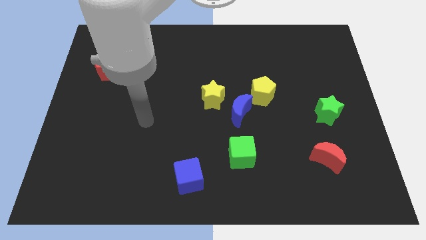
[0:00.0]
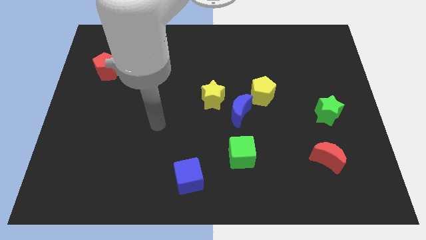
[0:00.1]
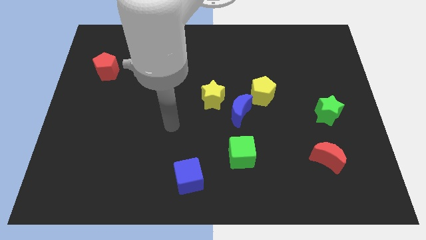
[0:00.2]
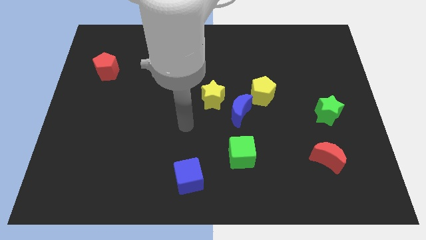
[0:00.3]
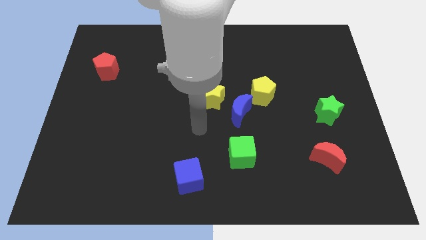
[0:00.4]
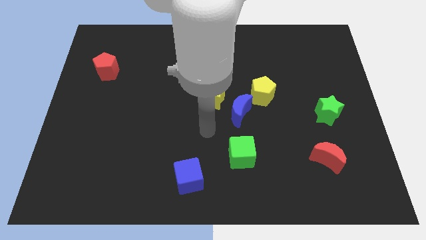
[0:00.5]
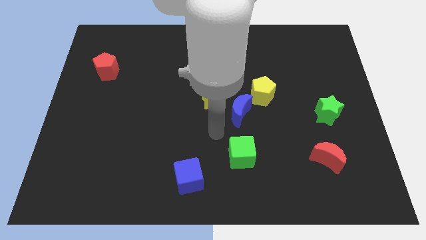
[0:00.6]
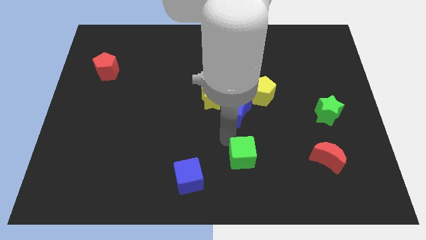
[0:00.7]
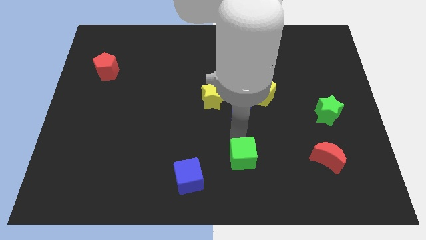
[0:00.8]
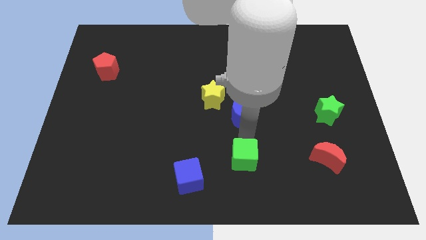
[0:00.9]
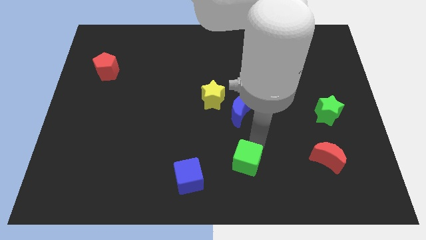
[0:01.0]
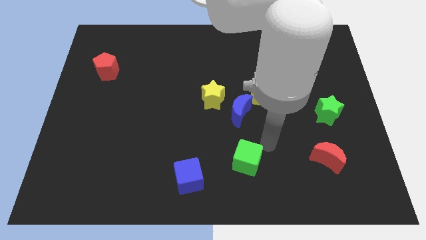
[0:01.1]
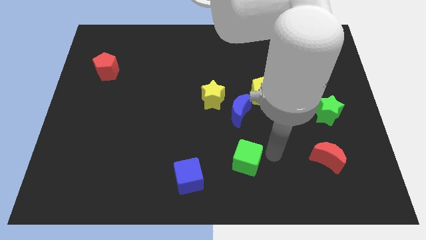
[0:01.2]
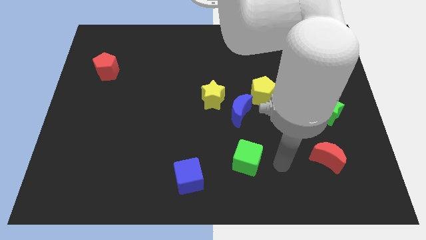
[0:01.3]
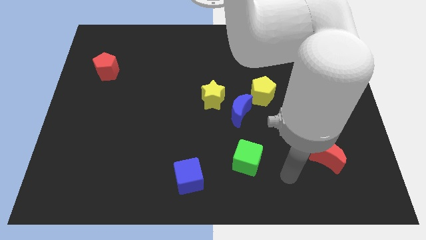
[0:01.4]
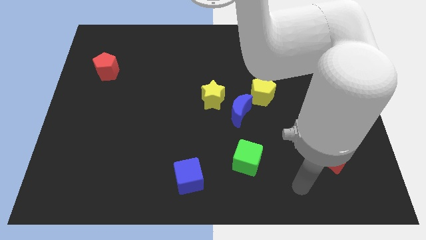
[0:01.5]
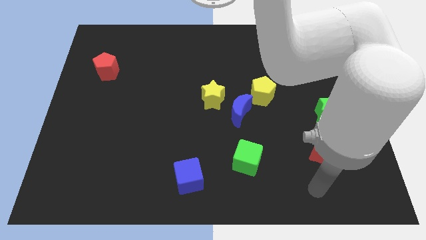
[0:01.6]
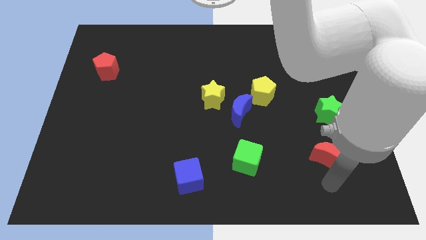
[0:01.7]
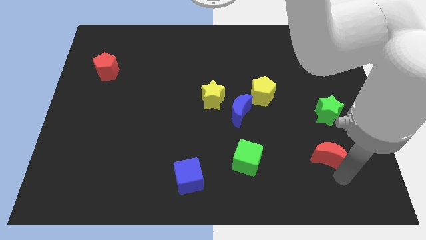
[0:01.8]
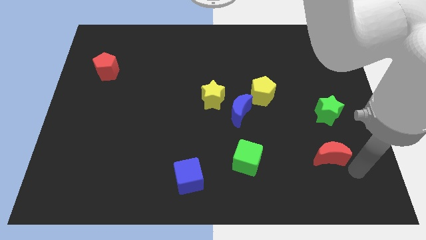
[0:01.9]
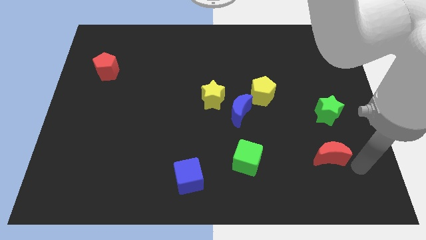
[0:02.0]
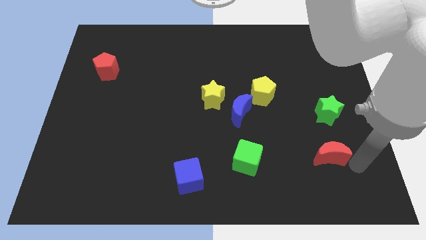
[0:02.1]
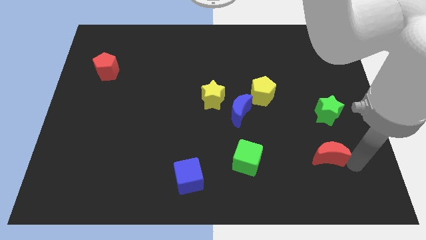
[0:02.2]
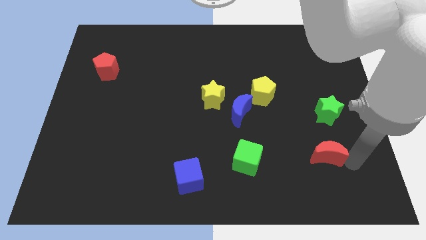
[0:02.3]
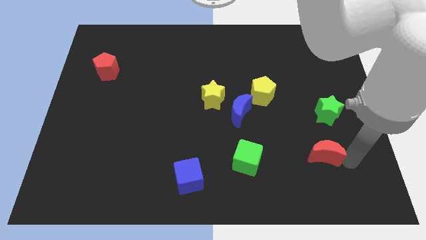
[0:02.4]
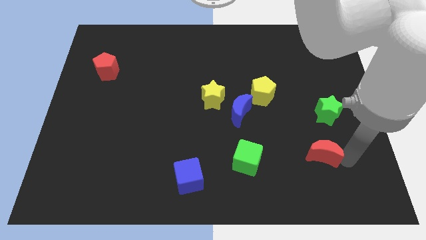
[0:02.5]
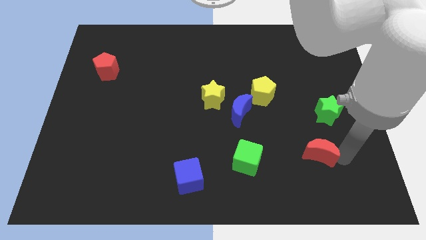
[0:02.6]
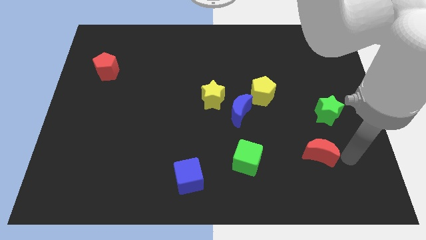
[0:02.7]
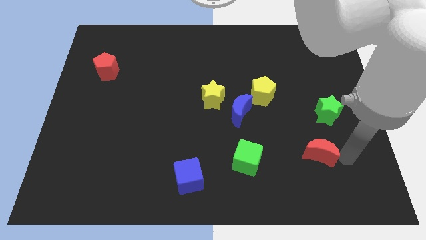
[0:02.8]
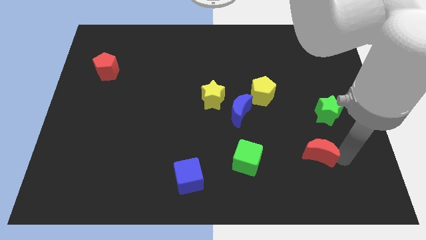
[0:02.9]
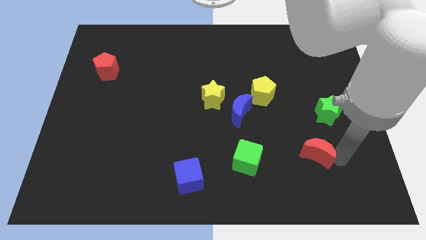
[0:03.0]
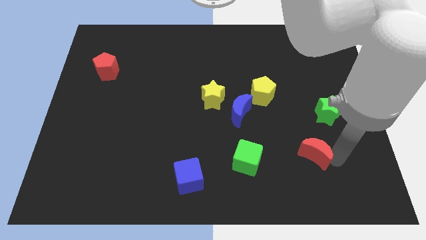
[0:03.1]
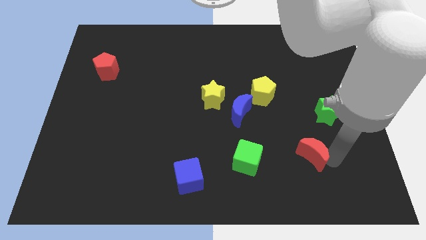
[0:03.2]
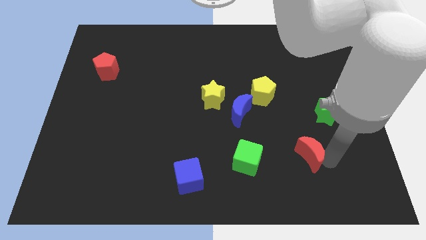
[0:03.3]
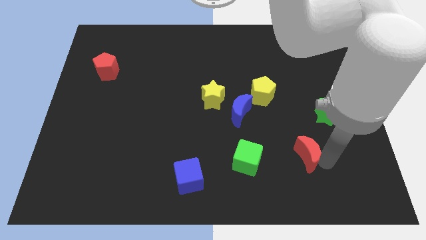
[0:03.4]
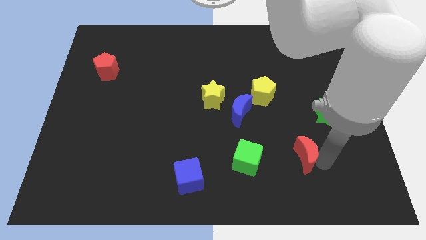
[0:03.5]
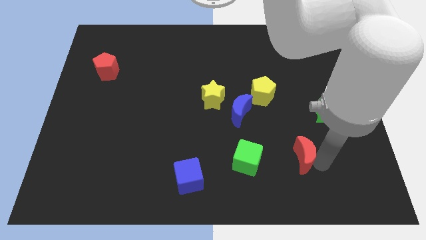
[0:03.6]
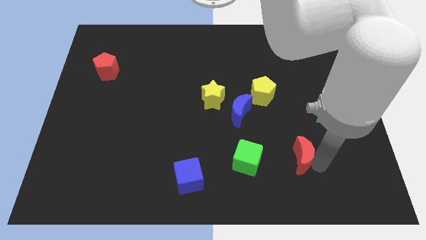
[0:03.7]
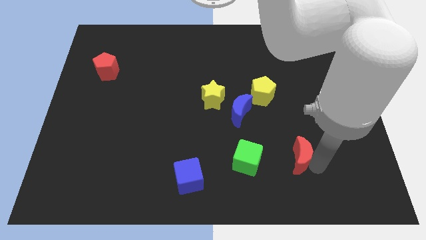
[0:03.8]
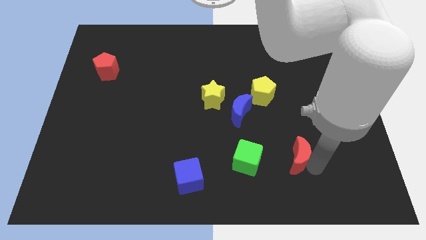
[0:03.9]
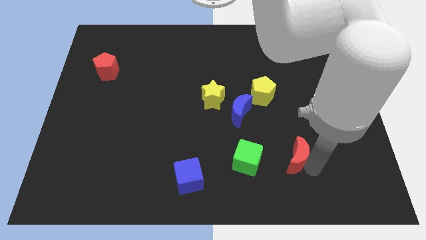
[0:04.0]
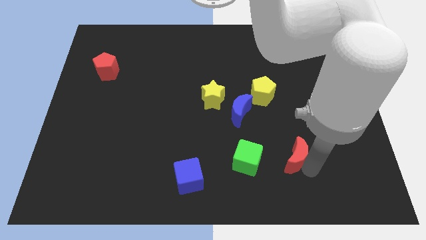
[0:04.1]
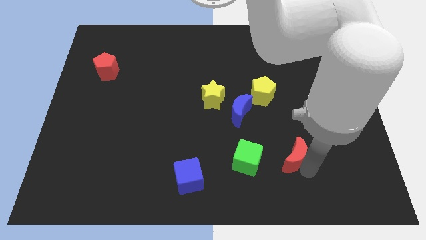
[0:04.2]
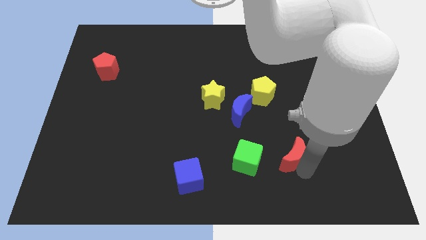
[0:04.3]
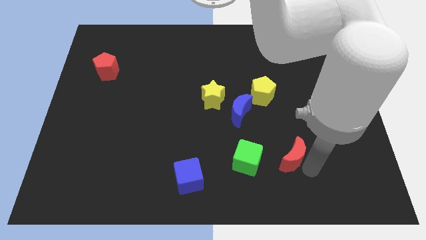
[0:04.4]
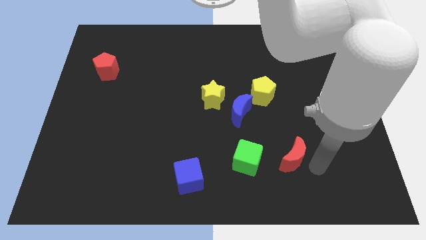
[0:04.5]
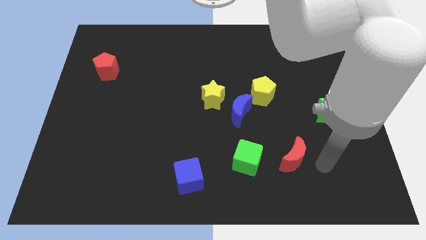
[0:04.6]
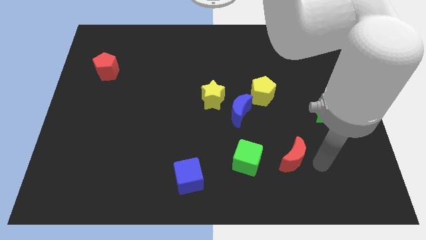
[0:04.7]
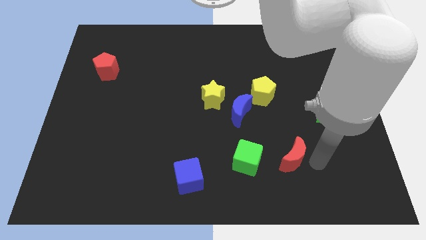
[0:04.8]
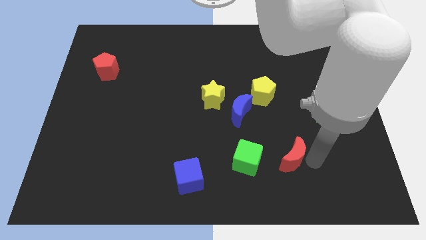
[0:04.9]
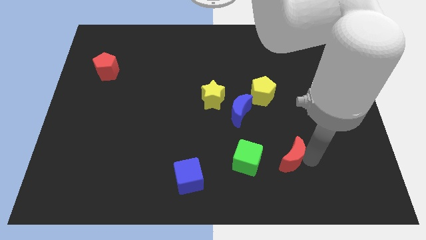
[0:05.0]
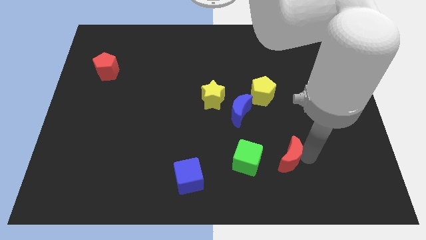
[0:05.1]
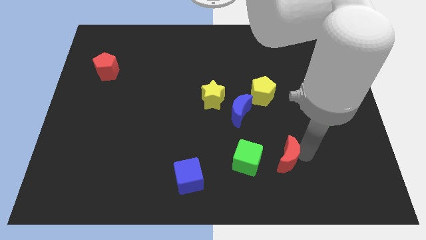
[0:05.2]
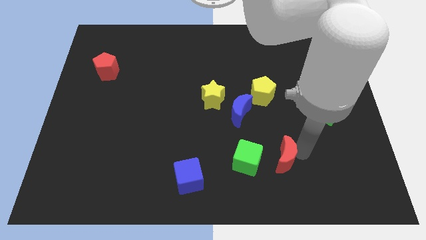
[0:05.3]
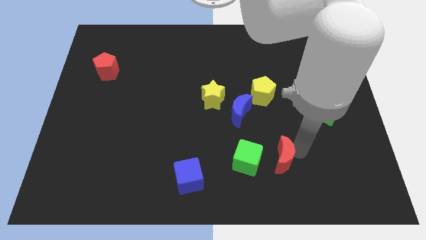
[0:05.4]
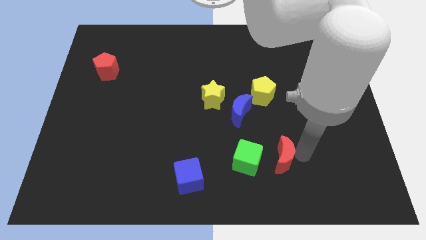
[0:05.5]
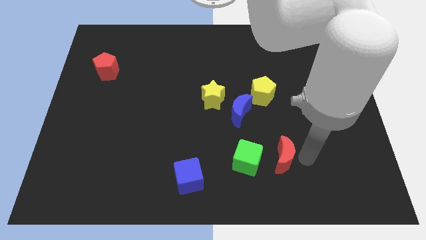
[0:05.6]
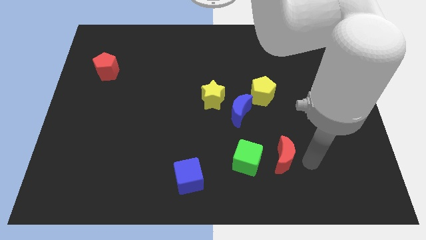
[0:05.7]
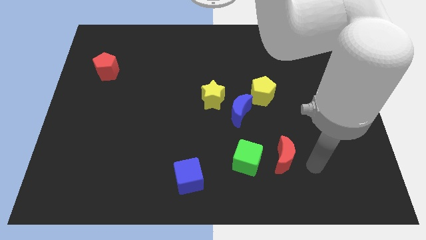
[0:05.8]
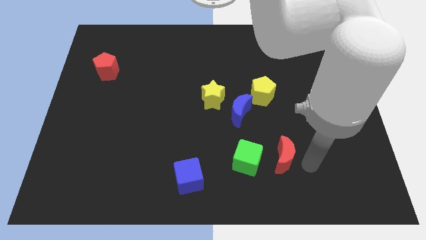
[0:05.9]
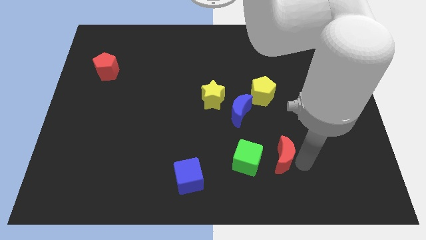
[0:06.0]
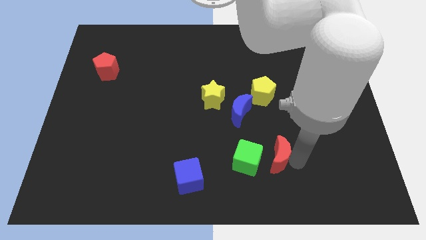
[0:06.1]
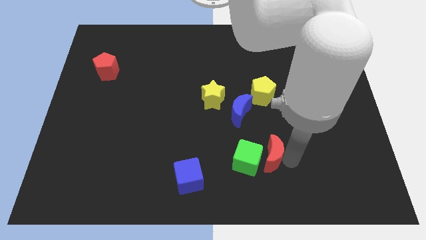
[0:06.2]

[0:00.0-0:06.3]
move the red moon next to the green cube
